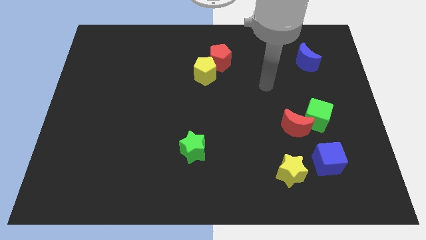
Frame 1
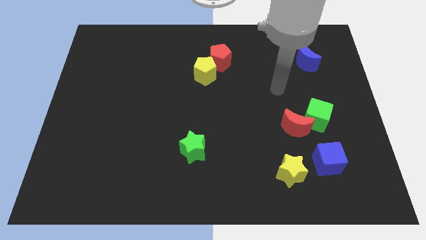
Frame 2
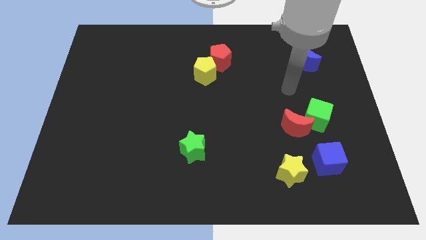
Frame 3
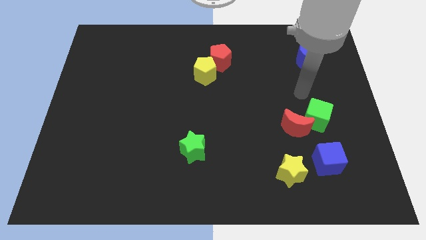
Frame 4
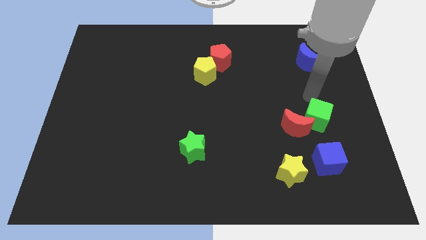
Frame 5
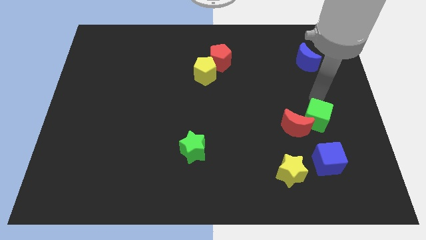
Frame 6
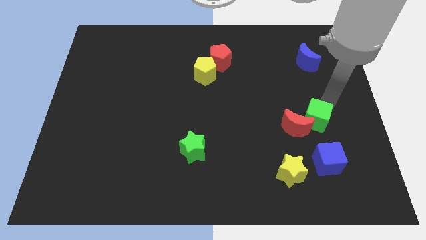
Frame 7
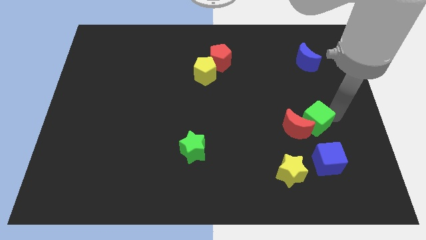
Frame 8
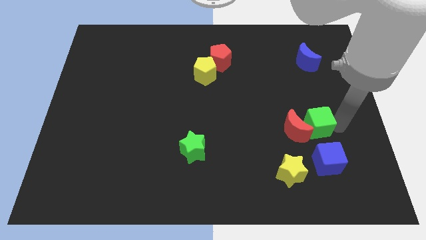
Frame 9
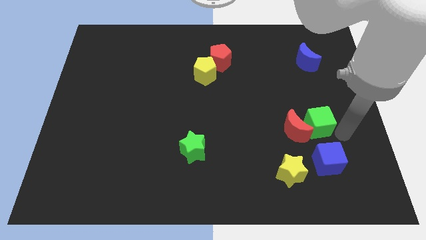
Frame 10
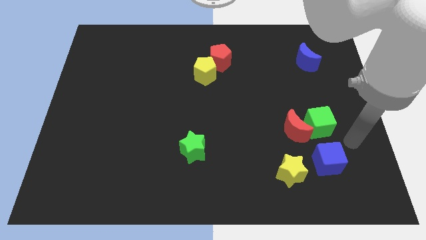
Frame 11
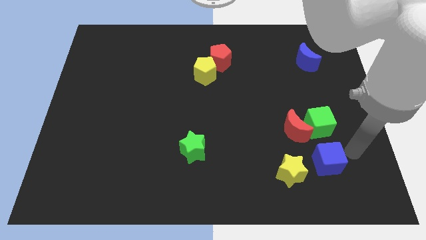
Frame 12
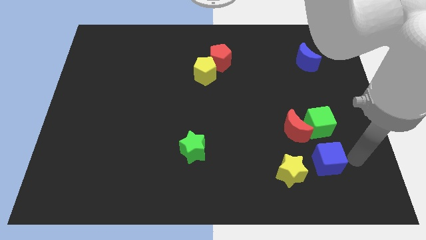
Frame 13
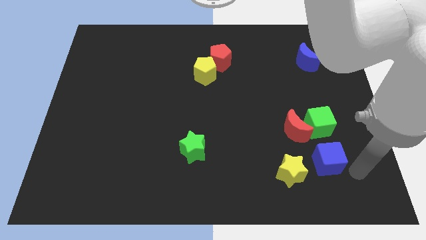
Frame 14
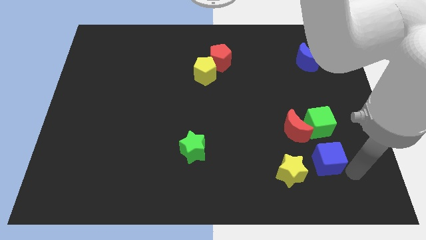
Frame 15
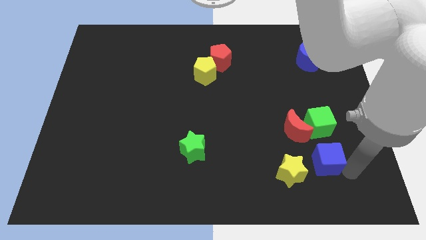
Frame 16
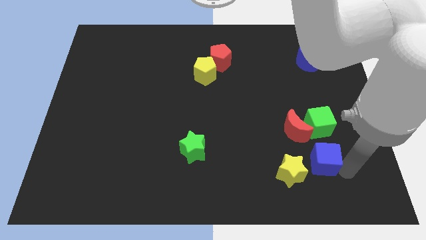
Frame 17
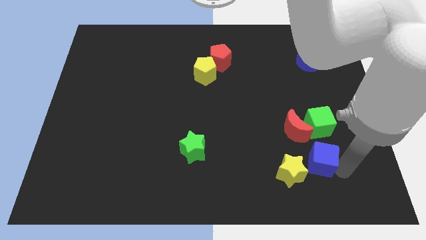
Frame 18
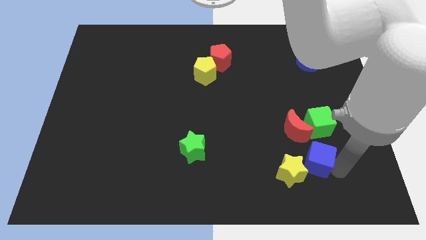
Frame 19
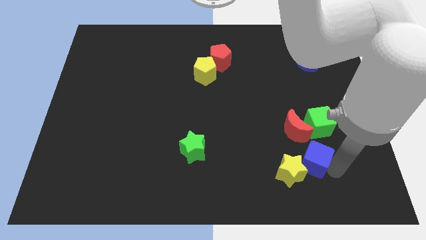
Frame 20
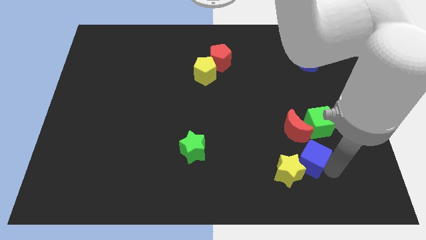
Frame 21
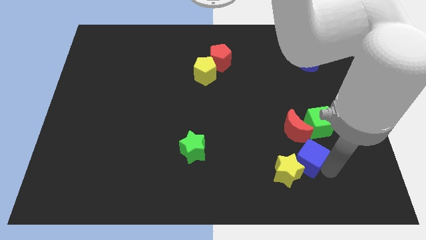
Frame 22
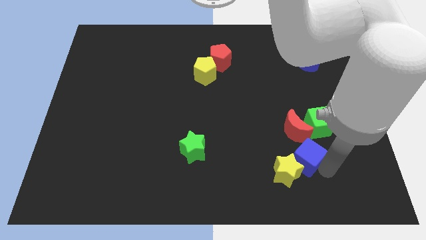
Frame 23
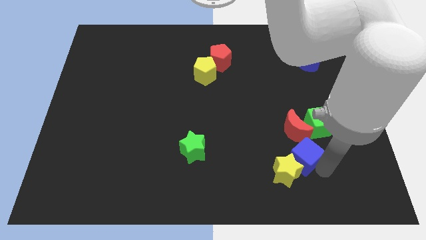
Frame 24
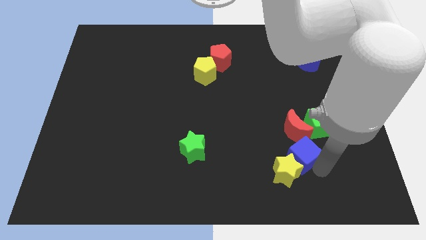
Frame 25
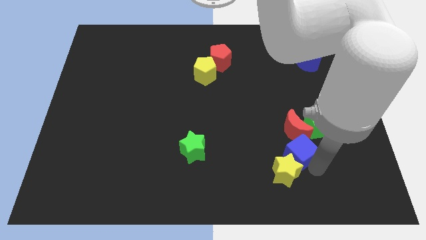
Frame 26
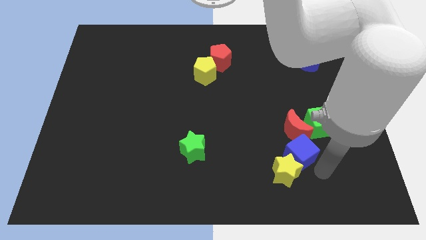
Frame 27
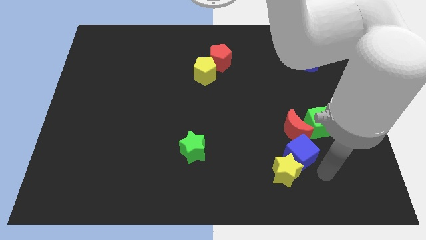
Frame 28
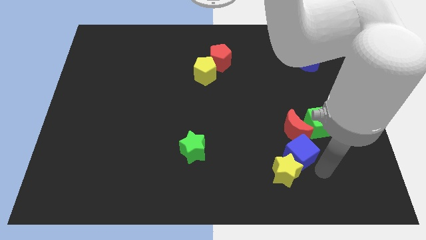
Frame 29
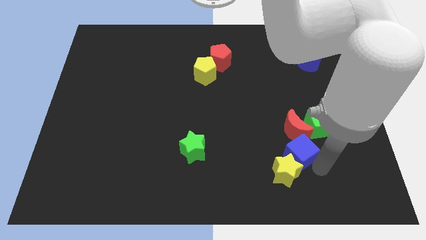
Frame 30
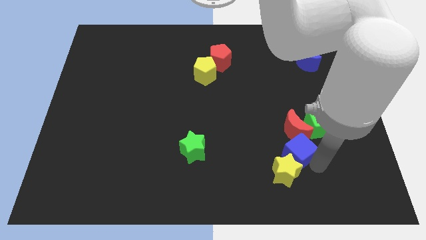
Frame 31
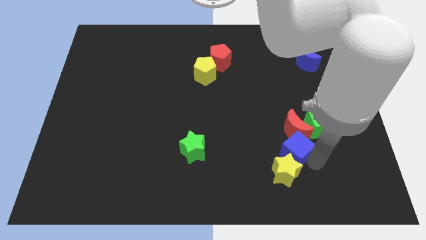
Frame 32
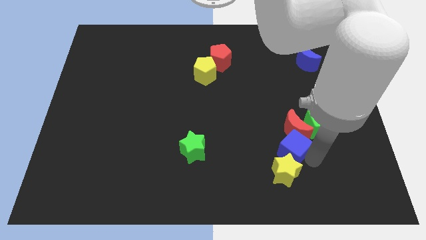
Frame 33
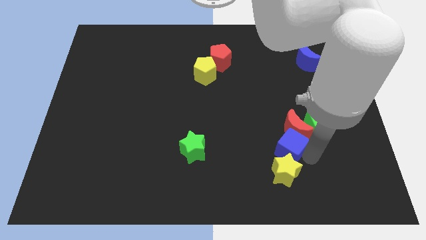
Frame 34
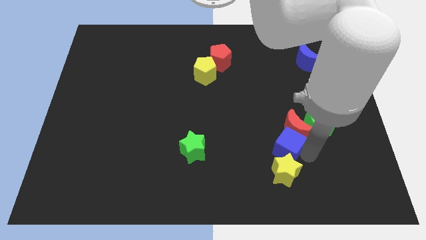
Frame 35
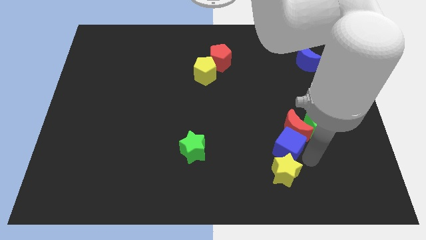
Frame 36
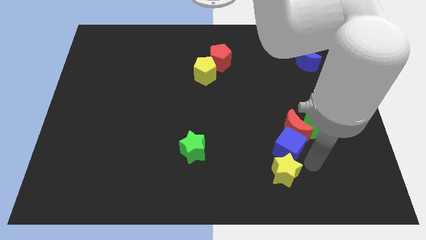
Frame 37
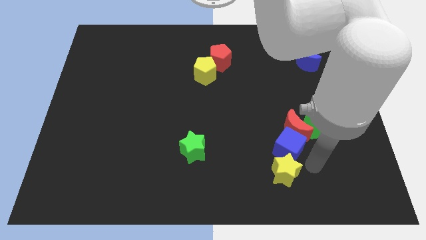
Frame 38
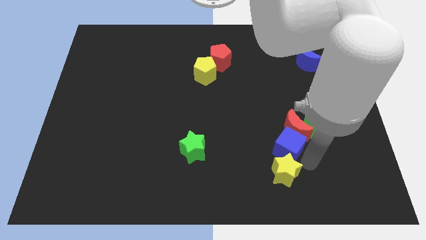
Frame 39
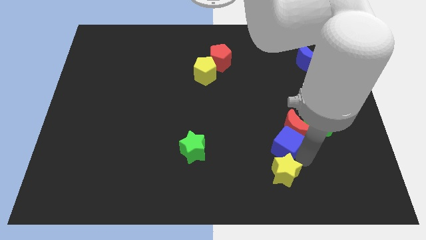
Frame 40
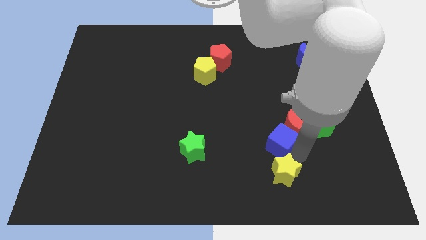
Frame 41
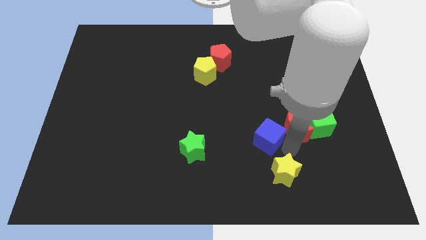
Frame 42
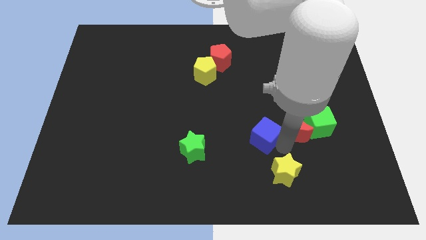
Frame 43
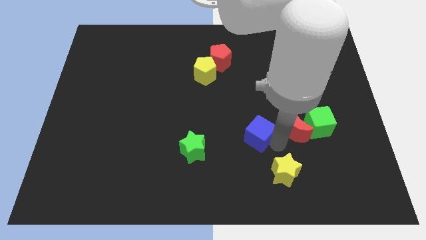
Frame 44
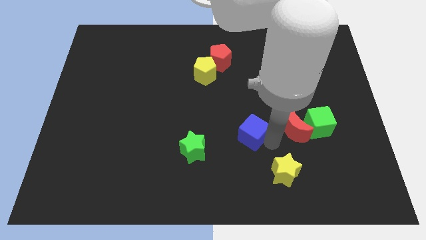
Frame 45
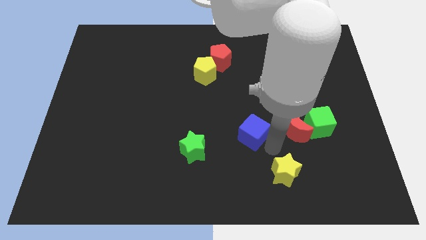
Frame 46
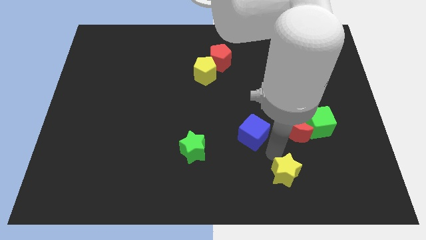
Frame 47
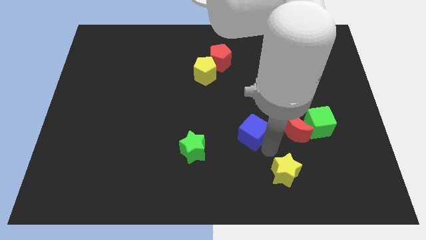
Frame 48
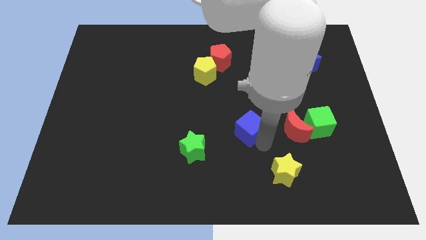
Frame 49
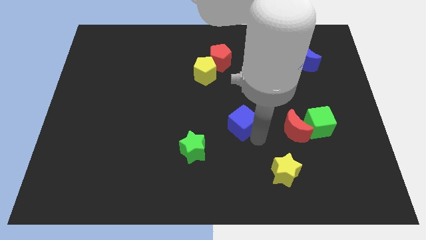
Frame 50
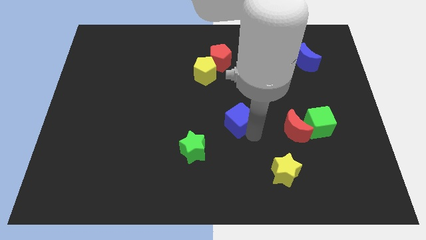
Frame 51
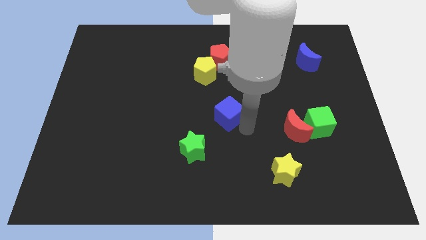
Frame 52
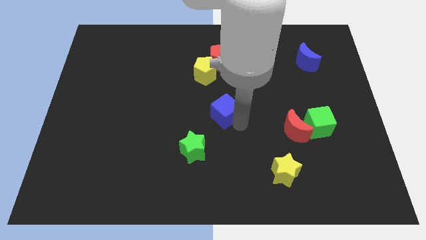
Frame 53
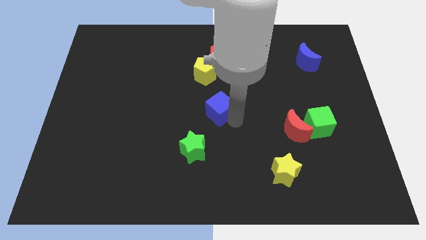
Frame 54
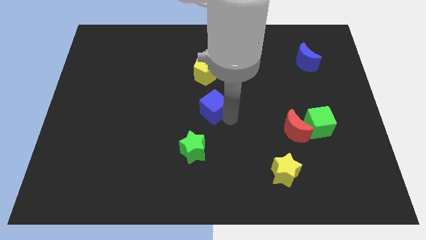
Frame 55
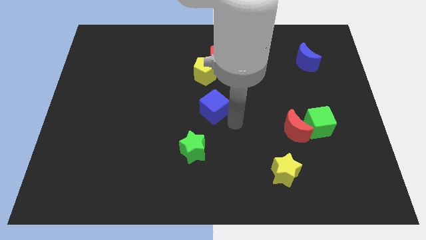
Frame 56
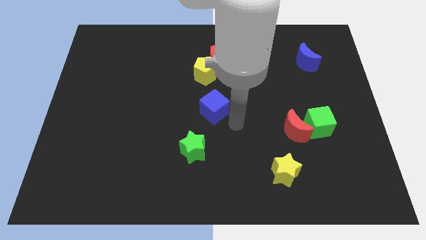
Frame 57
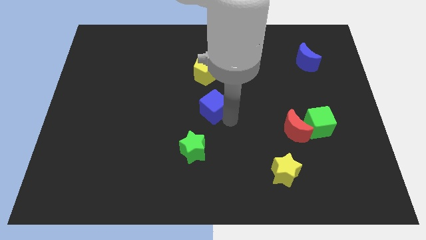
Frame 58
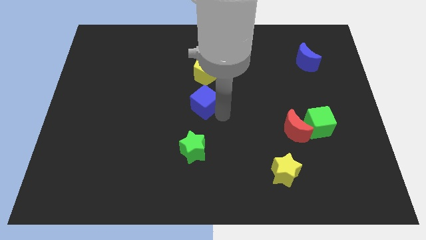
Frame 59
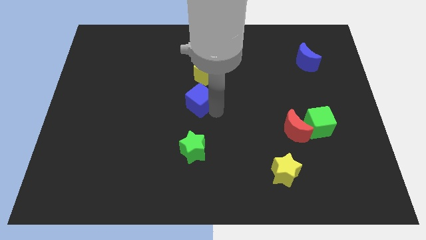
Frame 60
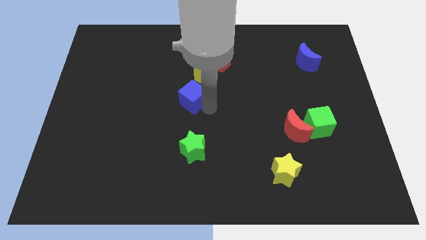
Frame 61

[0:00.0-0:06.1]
put the blue cube to the bottom left of the yellow pentagon

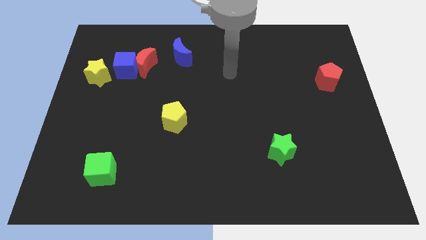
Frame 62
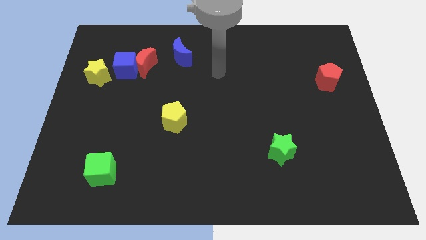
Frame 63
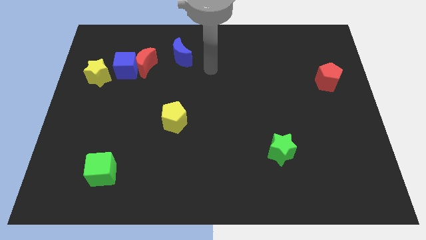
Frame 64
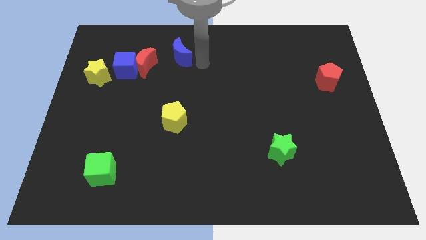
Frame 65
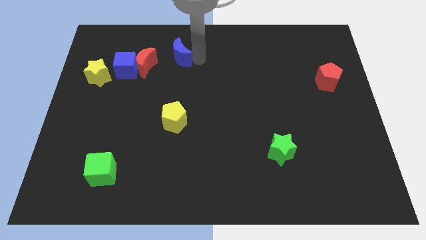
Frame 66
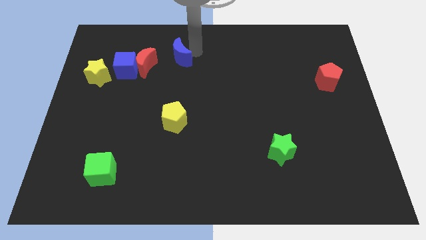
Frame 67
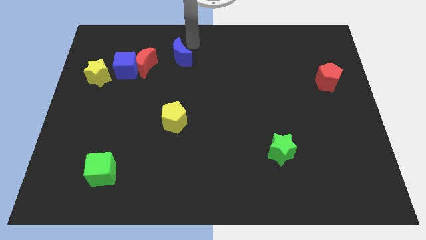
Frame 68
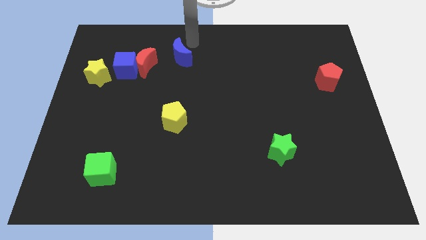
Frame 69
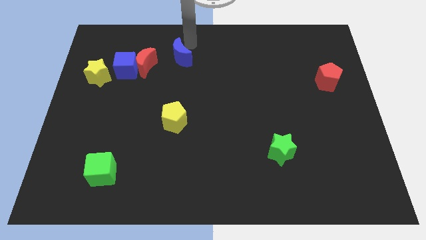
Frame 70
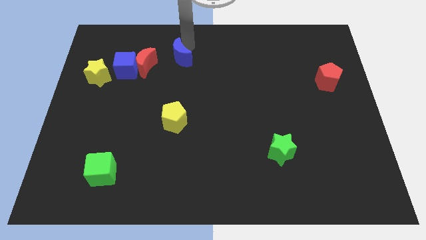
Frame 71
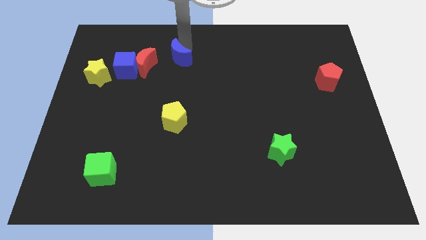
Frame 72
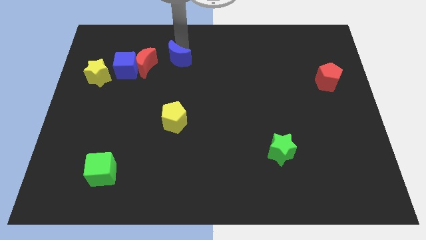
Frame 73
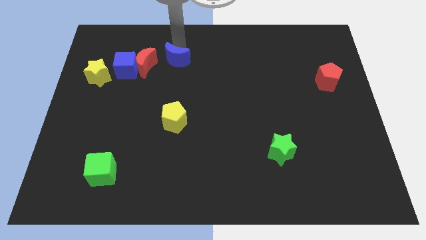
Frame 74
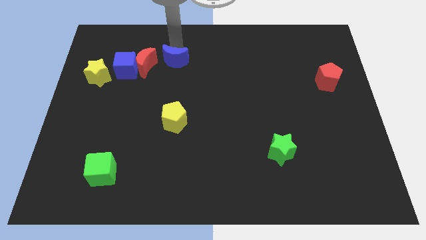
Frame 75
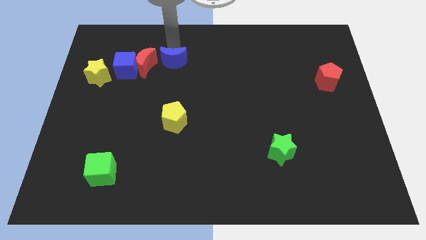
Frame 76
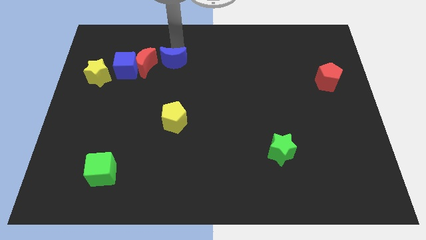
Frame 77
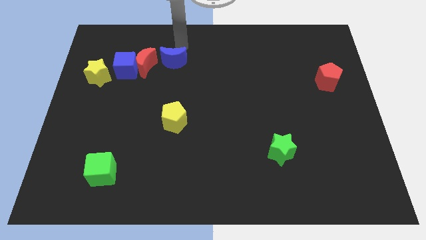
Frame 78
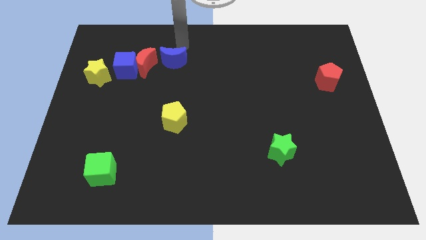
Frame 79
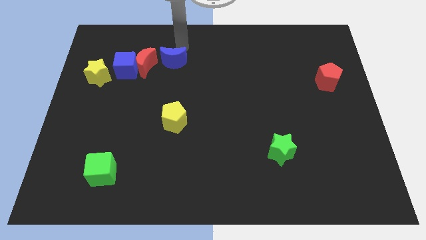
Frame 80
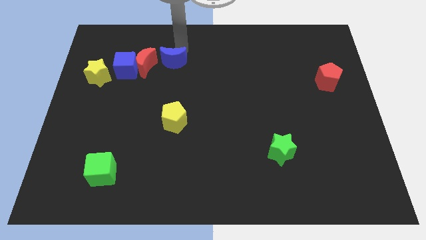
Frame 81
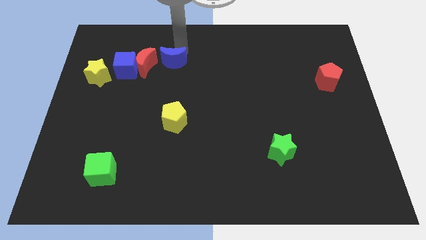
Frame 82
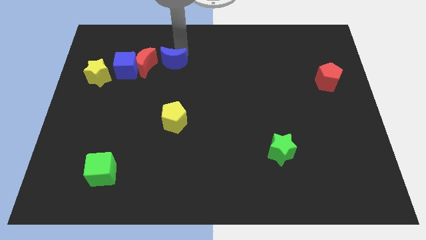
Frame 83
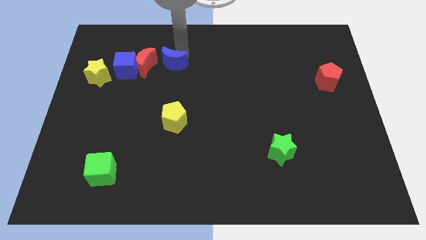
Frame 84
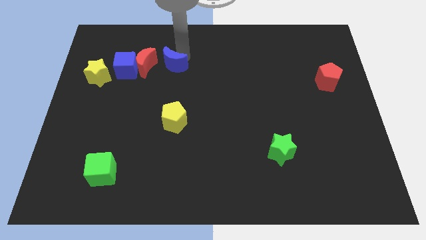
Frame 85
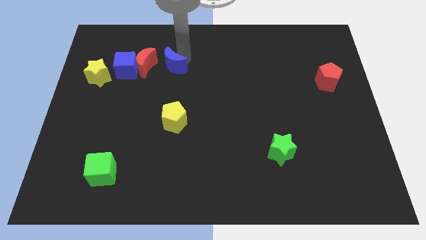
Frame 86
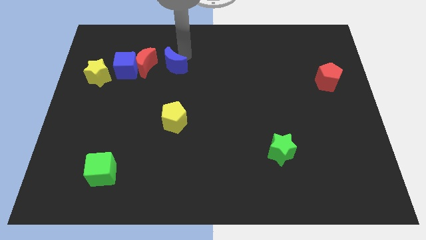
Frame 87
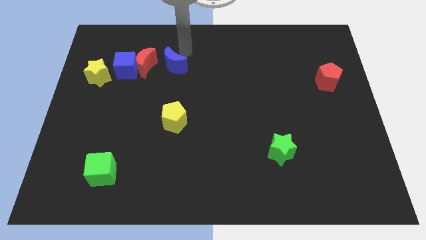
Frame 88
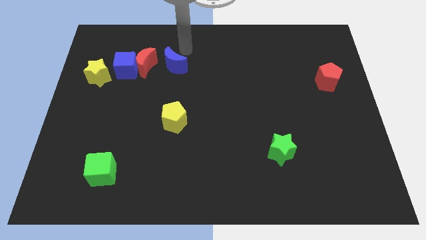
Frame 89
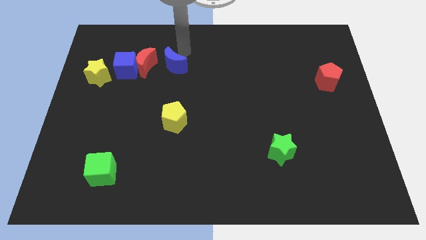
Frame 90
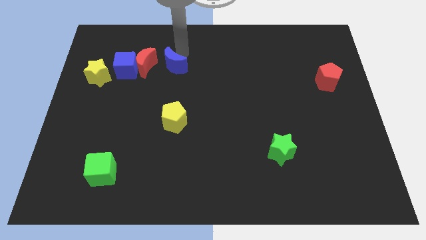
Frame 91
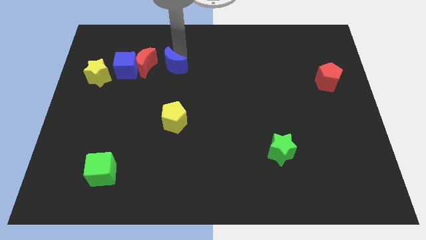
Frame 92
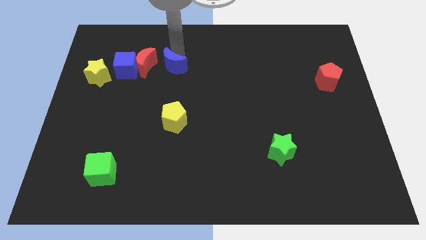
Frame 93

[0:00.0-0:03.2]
push the blue moon to the bottom right of the red moon
